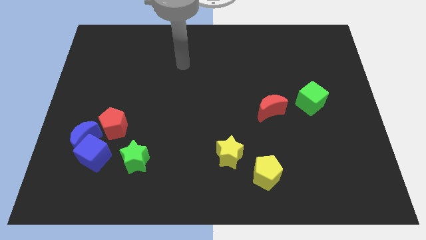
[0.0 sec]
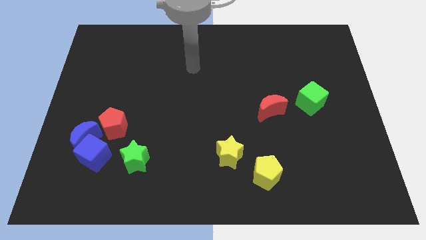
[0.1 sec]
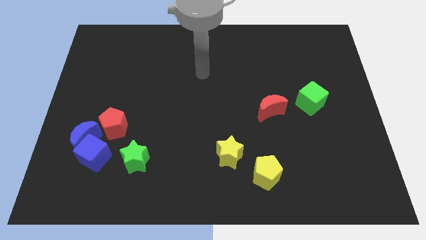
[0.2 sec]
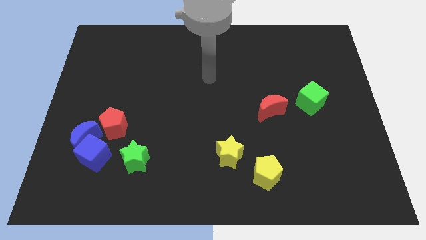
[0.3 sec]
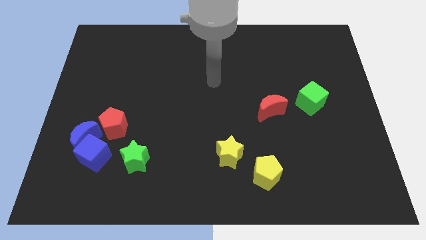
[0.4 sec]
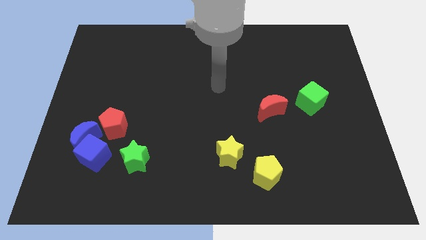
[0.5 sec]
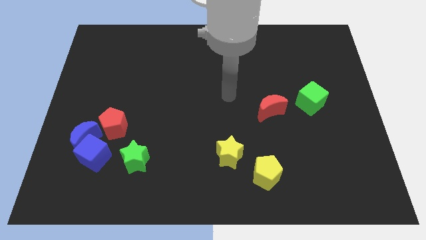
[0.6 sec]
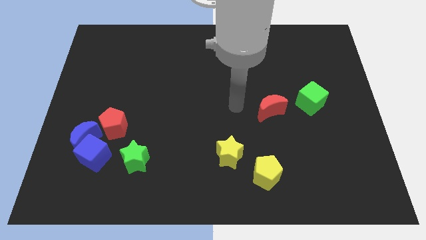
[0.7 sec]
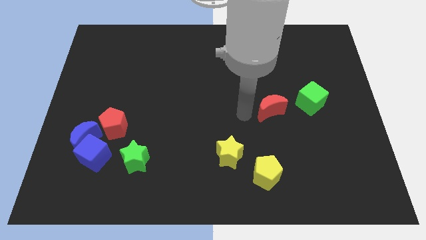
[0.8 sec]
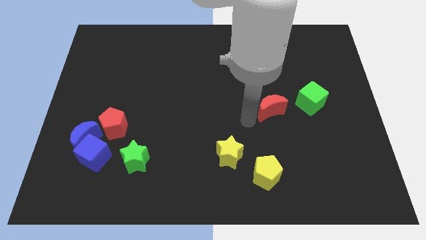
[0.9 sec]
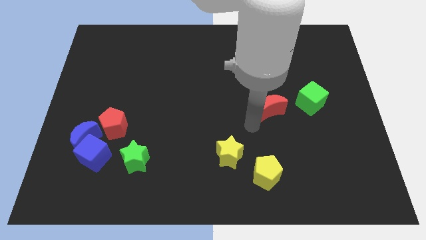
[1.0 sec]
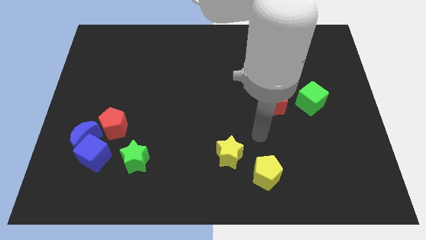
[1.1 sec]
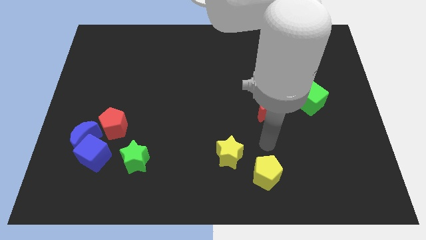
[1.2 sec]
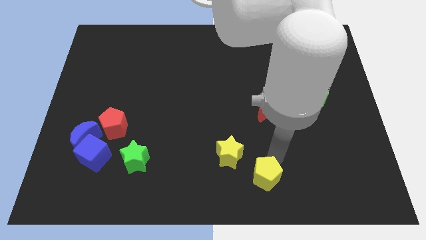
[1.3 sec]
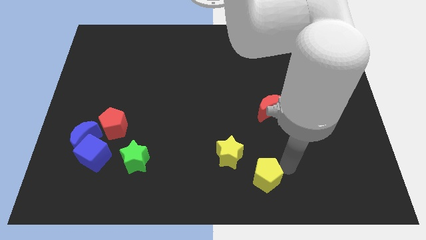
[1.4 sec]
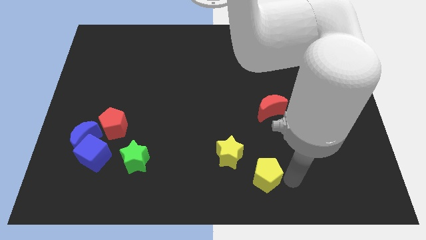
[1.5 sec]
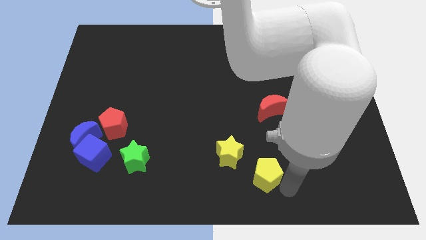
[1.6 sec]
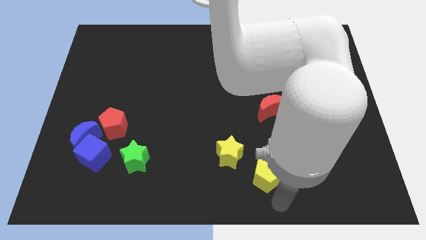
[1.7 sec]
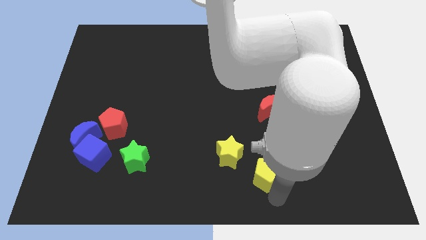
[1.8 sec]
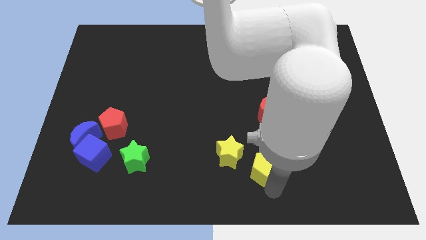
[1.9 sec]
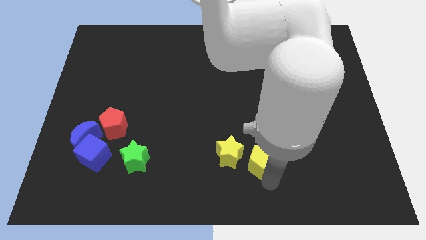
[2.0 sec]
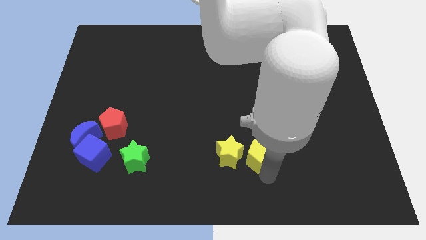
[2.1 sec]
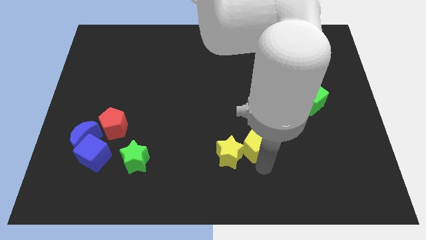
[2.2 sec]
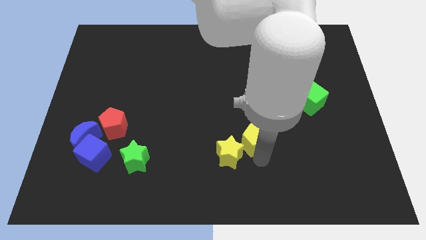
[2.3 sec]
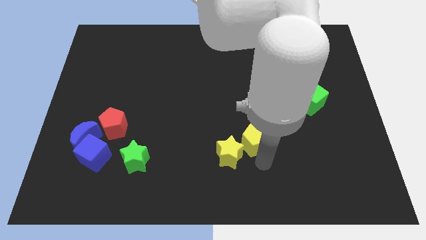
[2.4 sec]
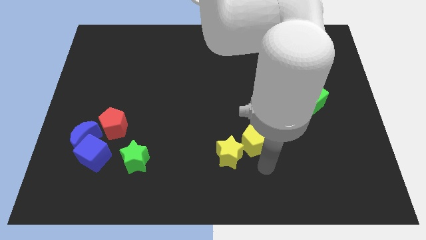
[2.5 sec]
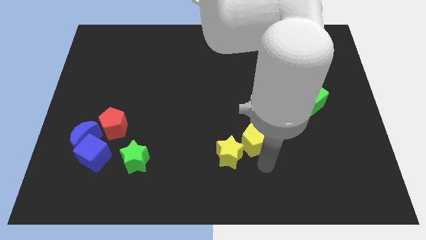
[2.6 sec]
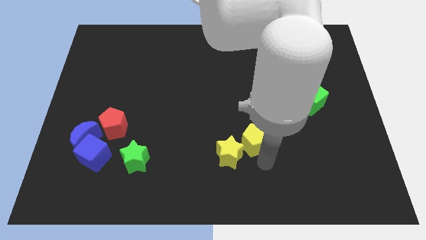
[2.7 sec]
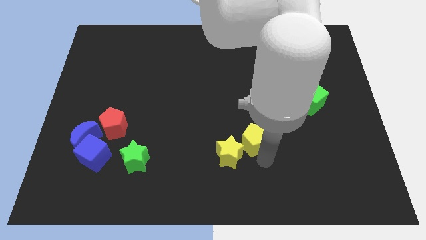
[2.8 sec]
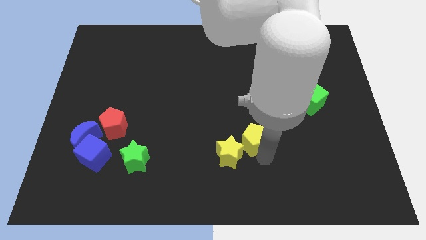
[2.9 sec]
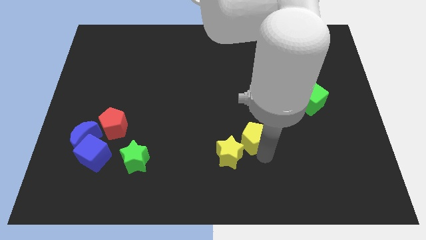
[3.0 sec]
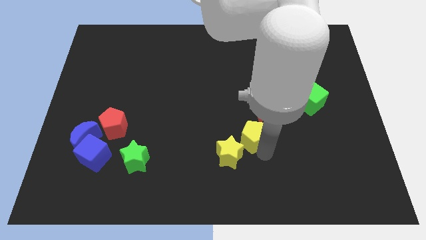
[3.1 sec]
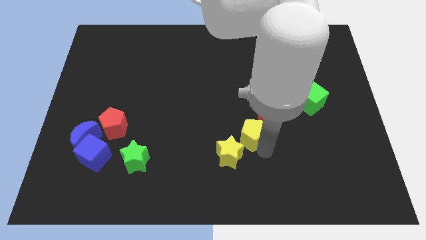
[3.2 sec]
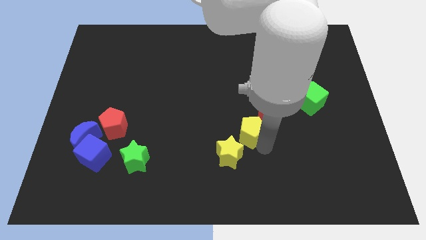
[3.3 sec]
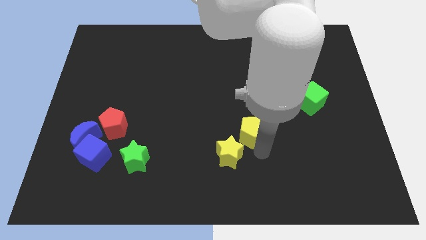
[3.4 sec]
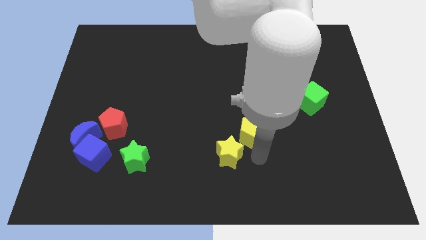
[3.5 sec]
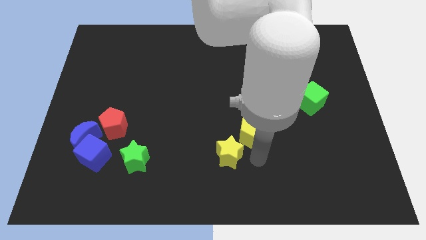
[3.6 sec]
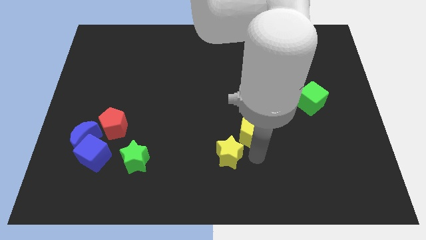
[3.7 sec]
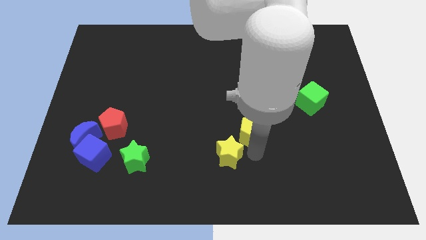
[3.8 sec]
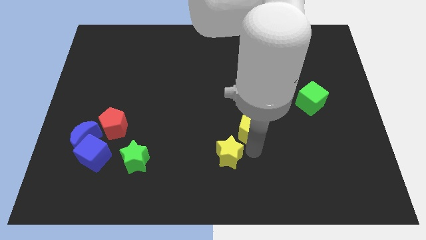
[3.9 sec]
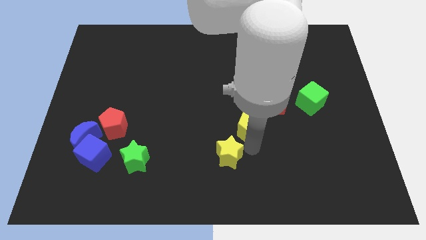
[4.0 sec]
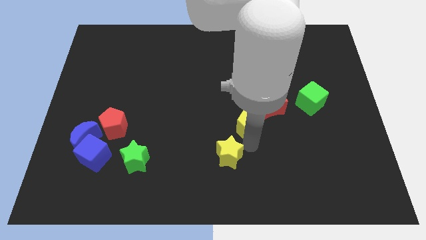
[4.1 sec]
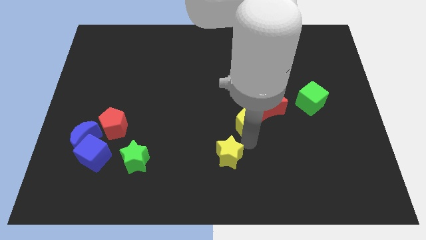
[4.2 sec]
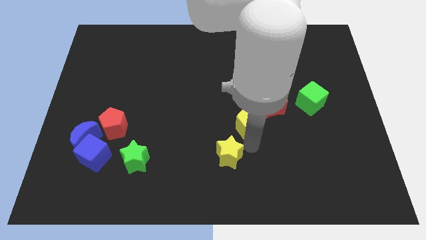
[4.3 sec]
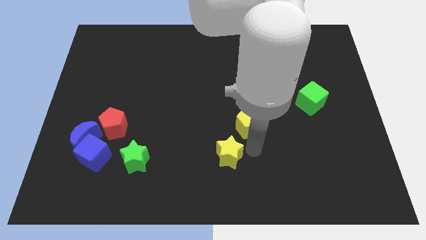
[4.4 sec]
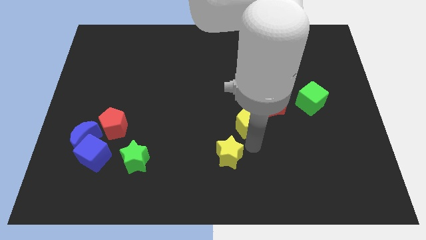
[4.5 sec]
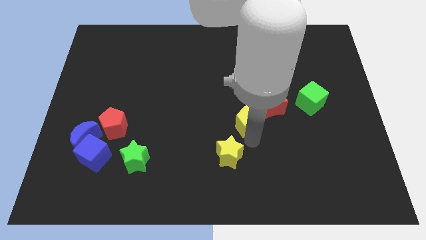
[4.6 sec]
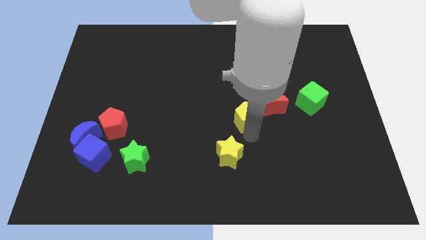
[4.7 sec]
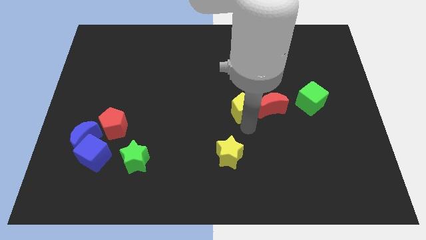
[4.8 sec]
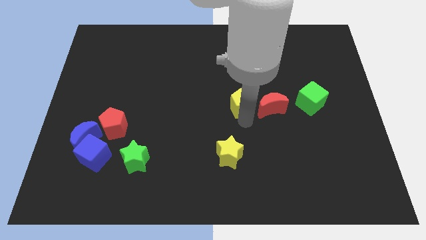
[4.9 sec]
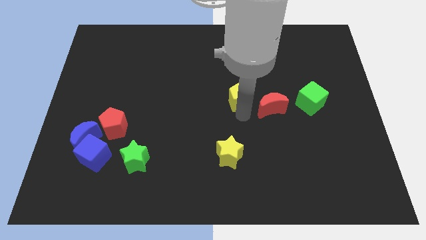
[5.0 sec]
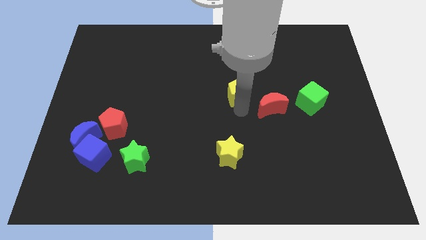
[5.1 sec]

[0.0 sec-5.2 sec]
slide the yellow pentagon up

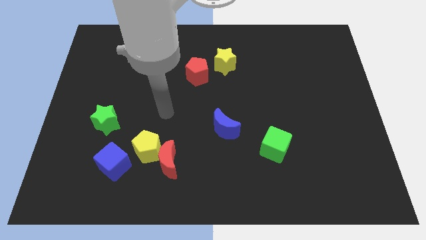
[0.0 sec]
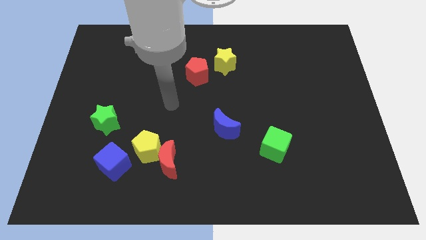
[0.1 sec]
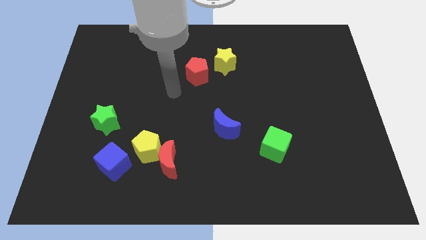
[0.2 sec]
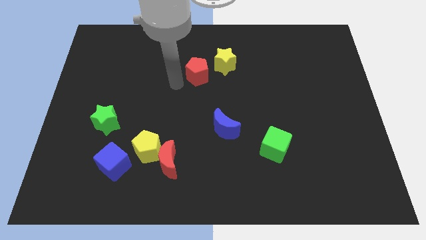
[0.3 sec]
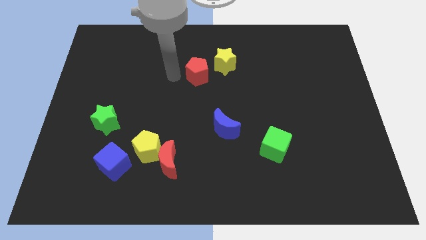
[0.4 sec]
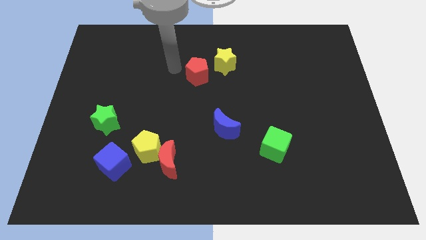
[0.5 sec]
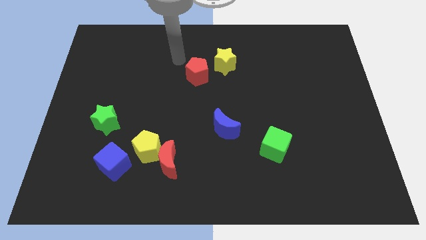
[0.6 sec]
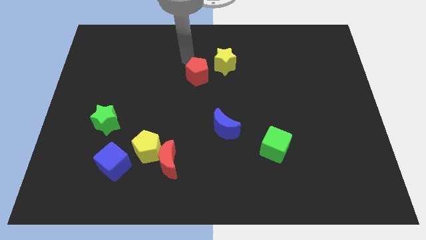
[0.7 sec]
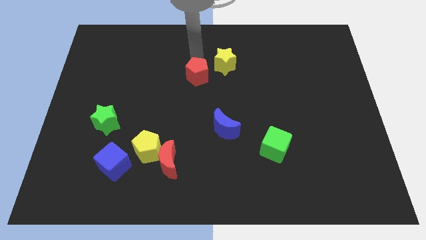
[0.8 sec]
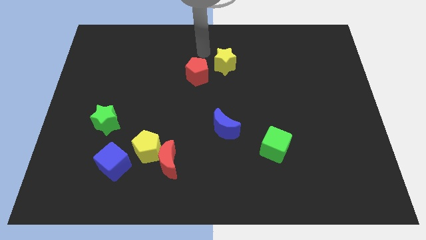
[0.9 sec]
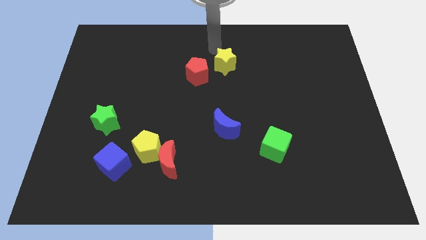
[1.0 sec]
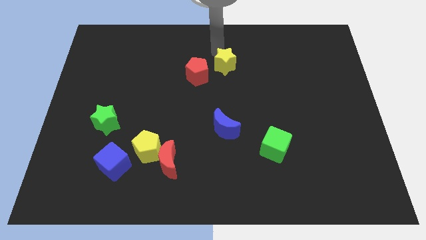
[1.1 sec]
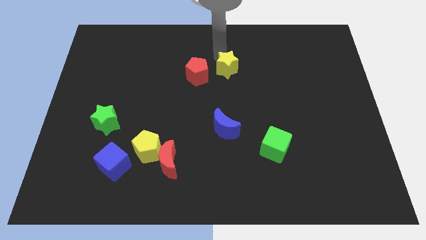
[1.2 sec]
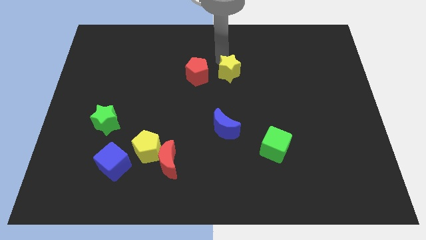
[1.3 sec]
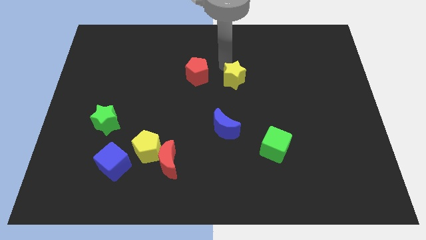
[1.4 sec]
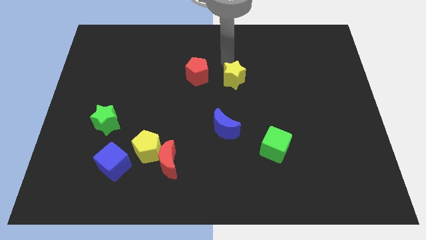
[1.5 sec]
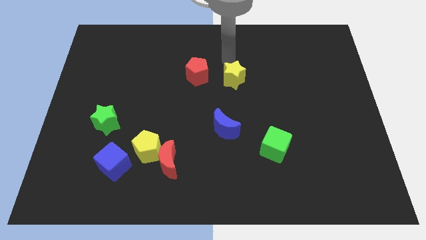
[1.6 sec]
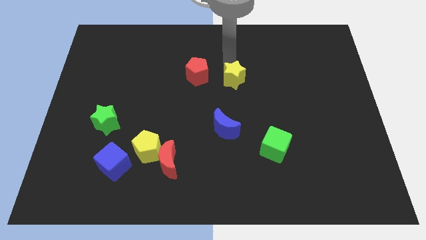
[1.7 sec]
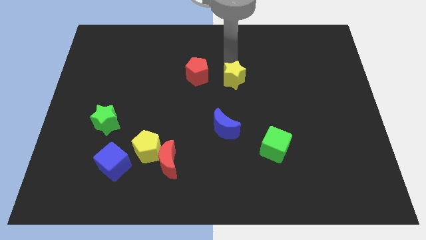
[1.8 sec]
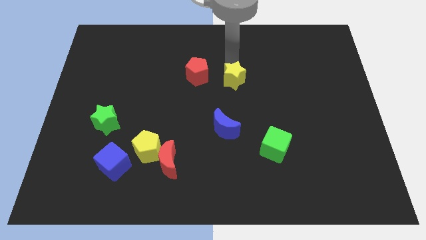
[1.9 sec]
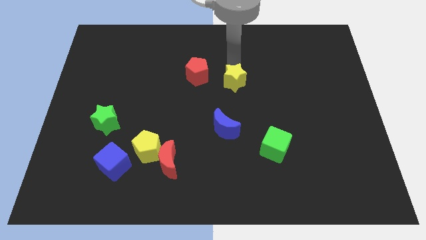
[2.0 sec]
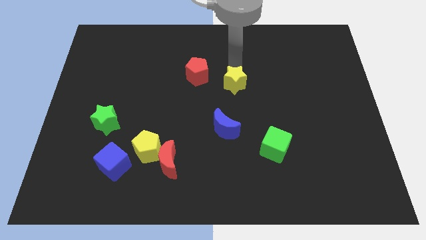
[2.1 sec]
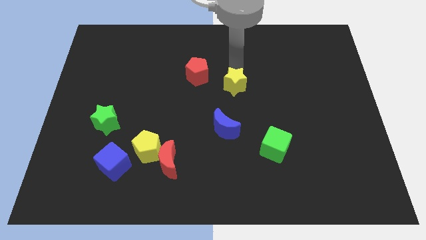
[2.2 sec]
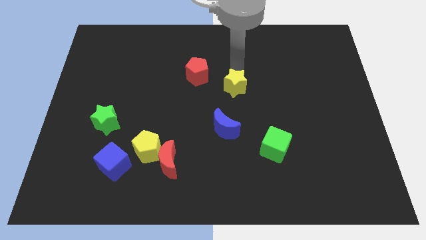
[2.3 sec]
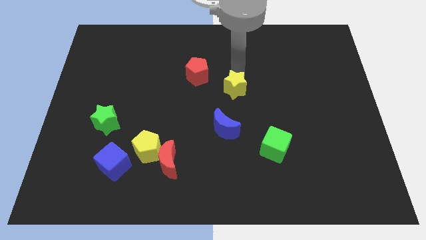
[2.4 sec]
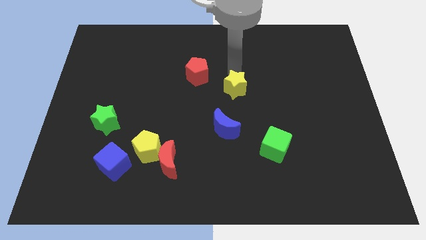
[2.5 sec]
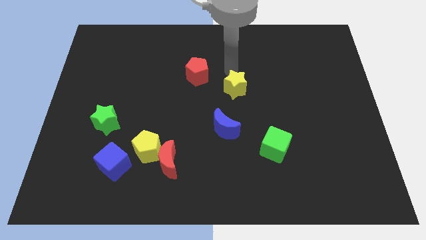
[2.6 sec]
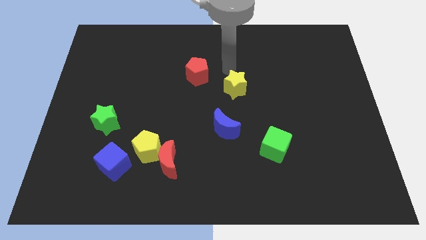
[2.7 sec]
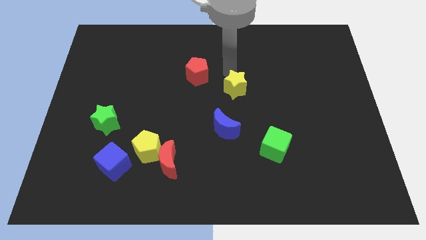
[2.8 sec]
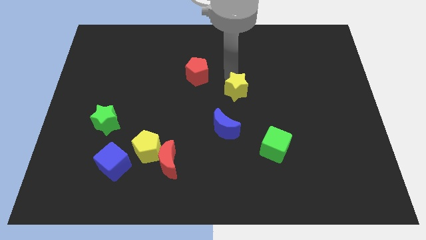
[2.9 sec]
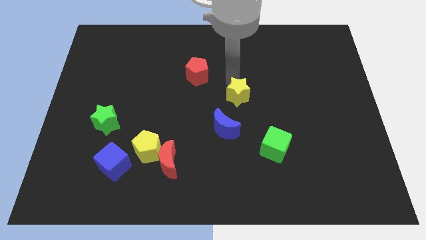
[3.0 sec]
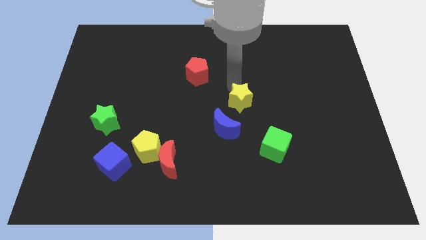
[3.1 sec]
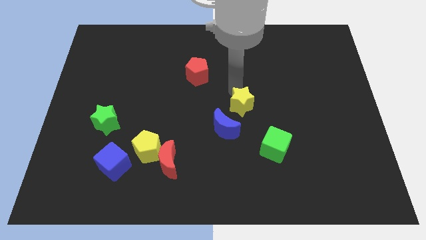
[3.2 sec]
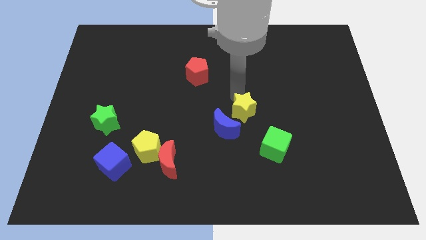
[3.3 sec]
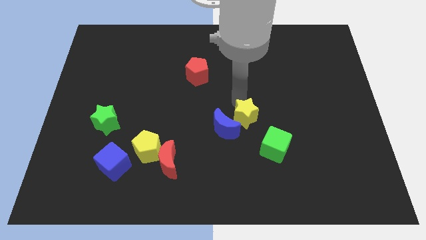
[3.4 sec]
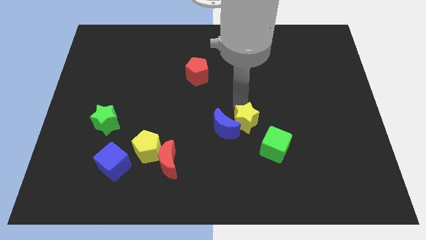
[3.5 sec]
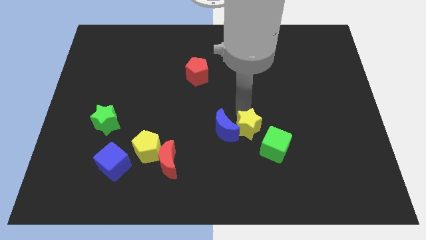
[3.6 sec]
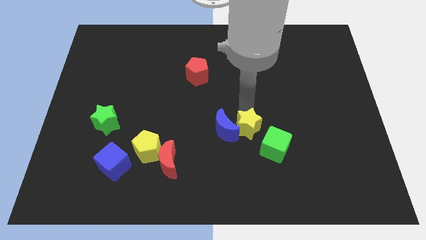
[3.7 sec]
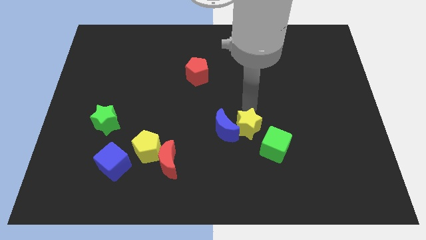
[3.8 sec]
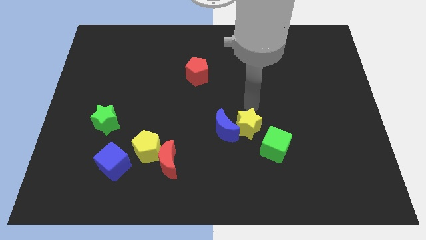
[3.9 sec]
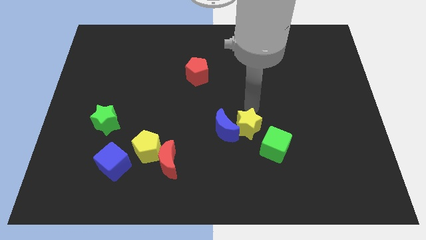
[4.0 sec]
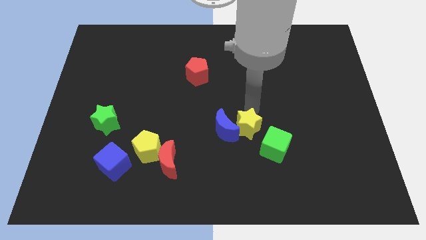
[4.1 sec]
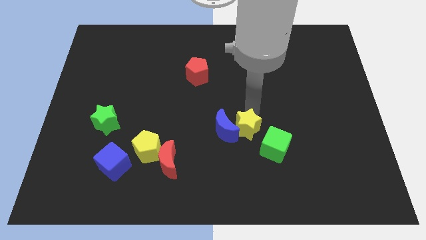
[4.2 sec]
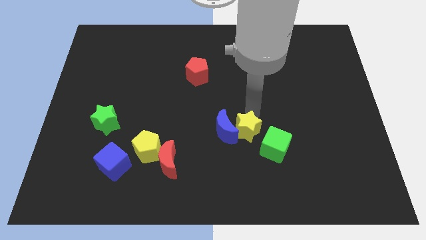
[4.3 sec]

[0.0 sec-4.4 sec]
slide the yellow star down
